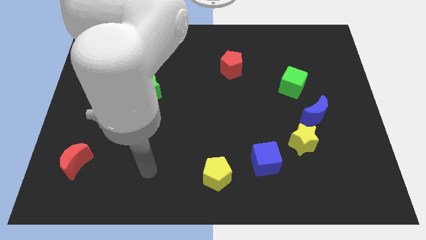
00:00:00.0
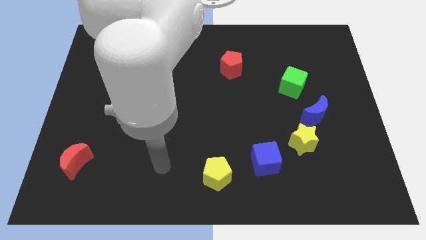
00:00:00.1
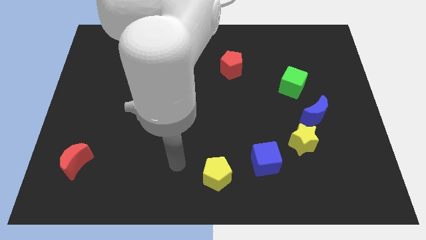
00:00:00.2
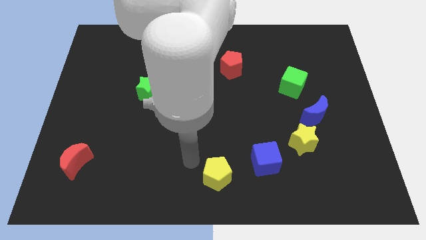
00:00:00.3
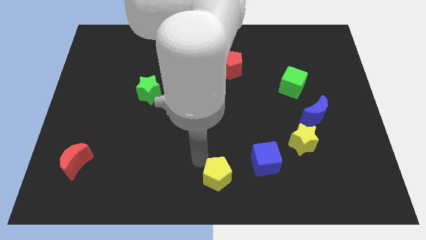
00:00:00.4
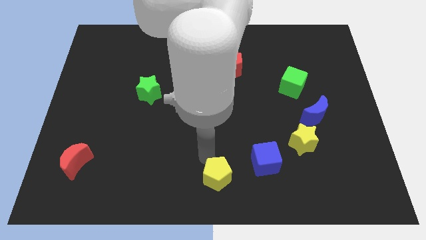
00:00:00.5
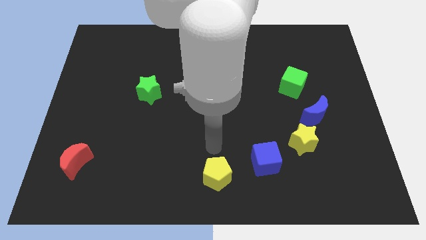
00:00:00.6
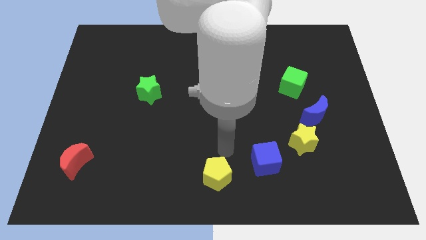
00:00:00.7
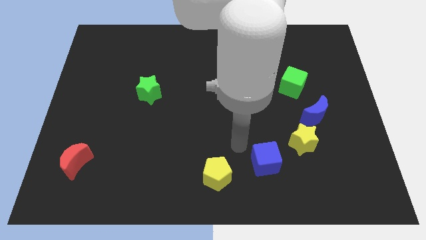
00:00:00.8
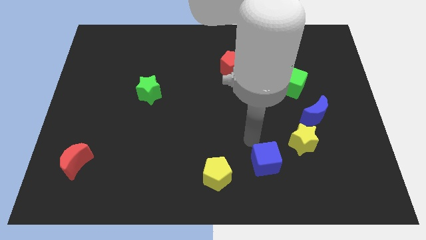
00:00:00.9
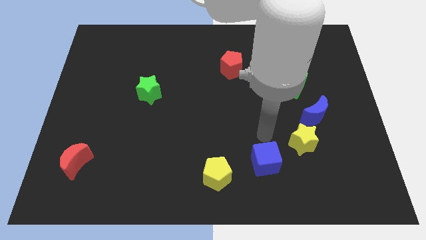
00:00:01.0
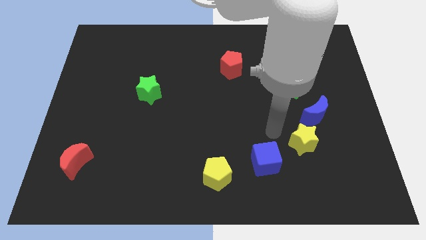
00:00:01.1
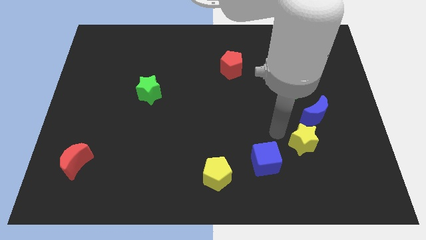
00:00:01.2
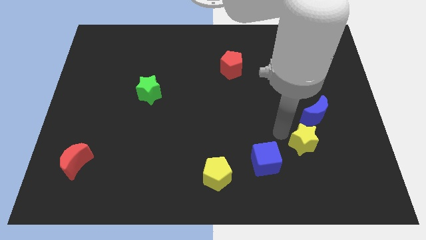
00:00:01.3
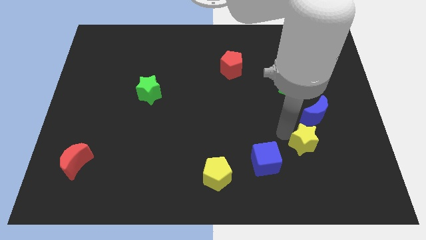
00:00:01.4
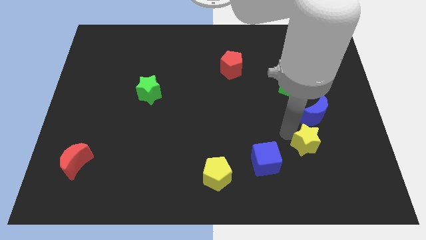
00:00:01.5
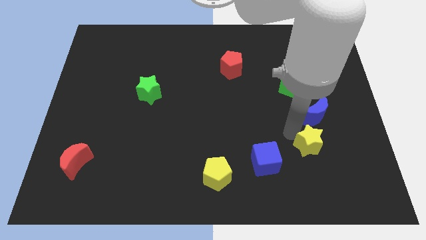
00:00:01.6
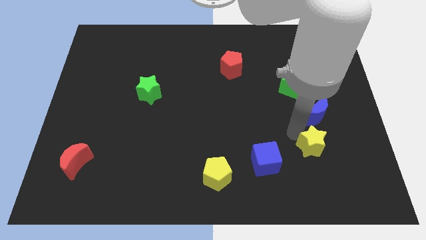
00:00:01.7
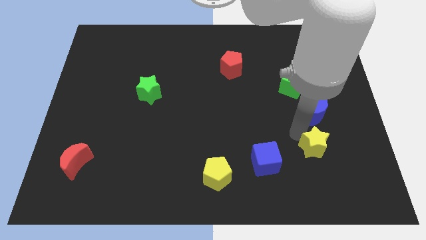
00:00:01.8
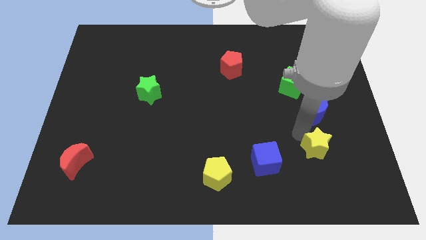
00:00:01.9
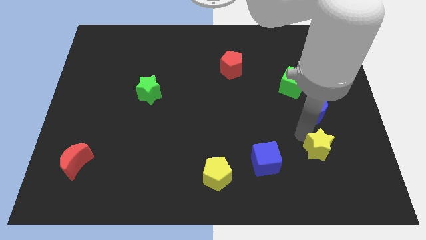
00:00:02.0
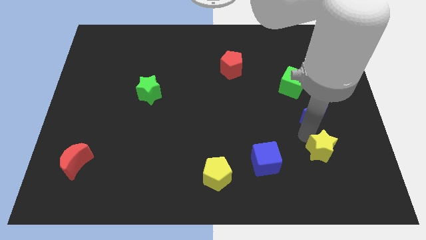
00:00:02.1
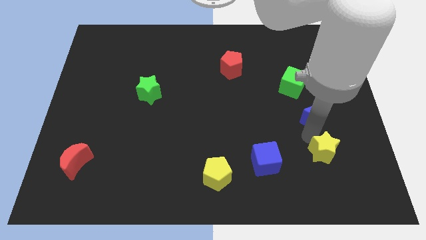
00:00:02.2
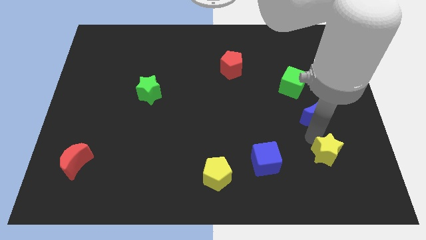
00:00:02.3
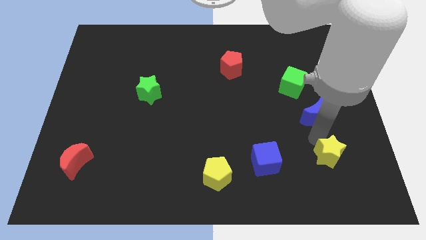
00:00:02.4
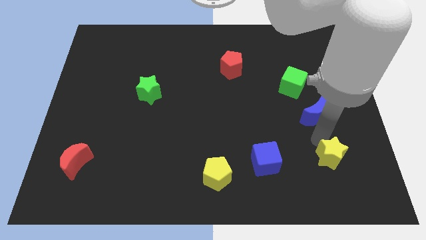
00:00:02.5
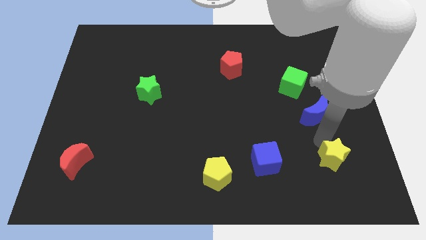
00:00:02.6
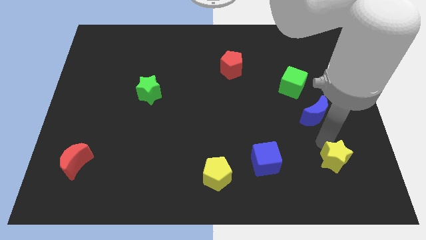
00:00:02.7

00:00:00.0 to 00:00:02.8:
pull the yellow star apart from the blue moon and blue cube

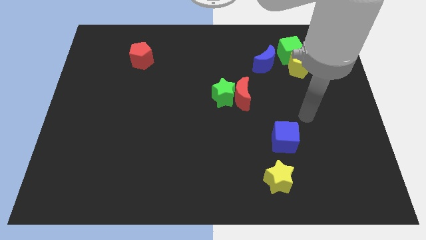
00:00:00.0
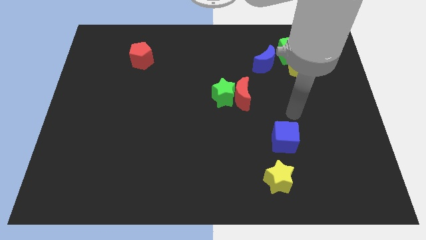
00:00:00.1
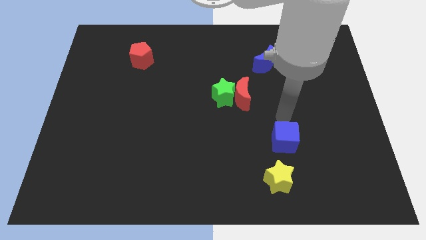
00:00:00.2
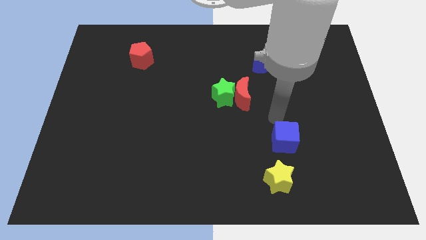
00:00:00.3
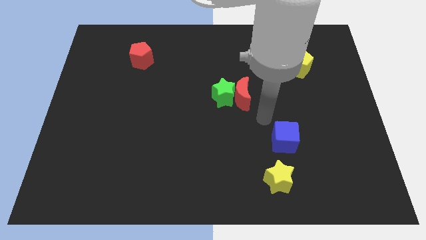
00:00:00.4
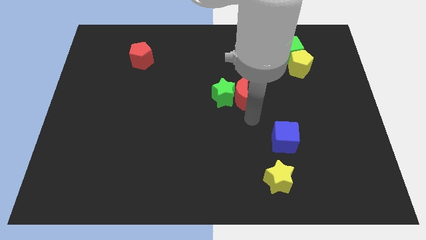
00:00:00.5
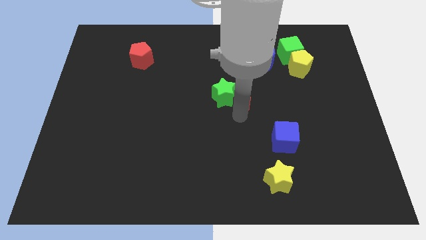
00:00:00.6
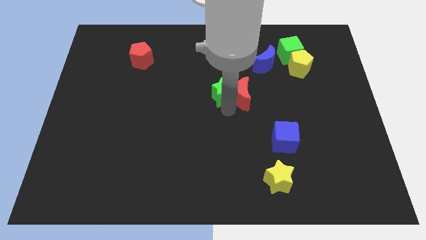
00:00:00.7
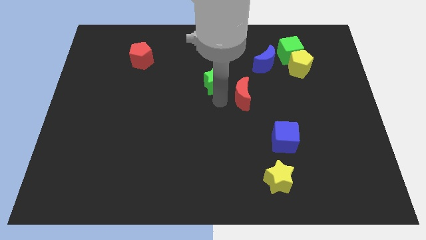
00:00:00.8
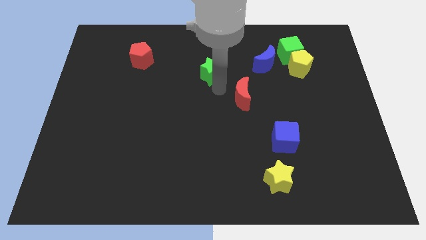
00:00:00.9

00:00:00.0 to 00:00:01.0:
separate the red moon from the green star

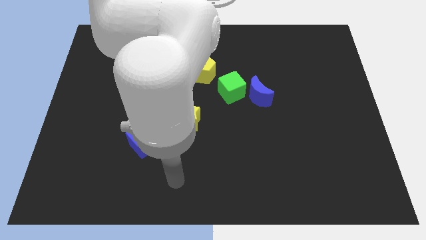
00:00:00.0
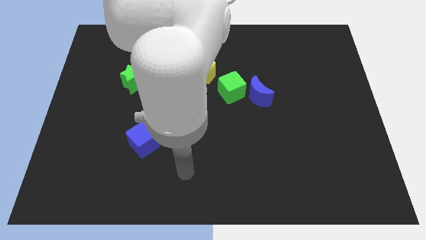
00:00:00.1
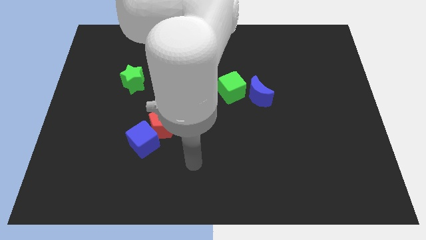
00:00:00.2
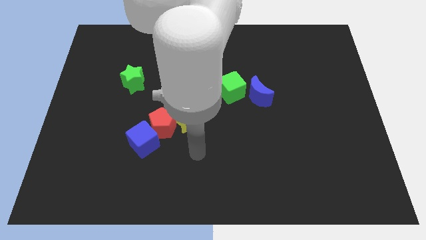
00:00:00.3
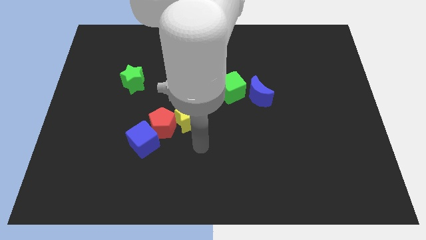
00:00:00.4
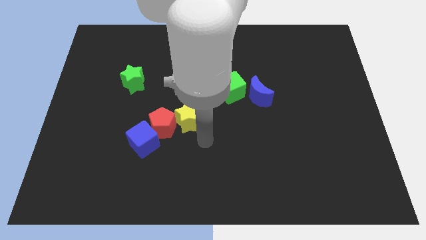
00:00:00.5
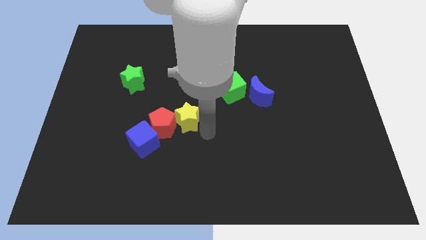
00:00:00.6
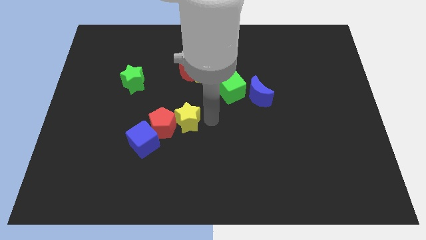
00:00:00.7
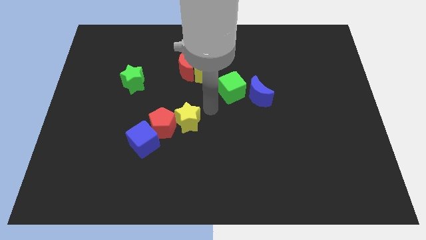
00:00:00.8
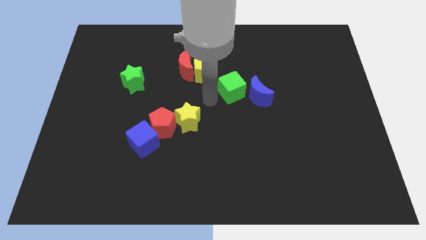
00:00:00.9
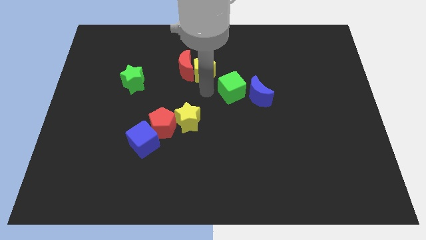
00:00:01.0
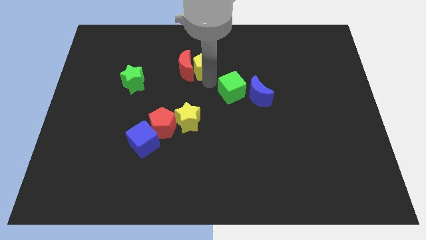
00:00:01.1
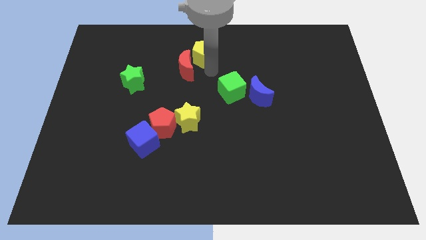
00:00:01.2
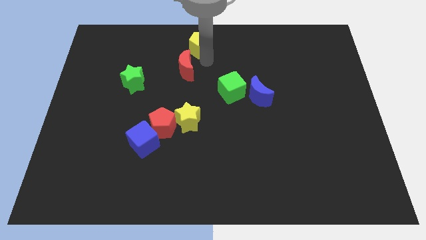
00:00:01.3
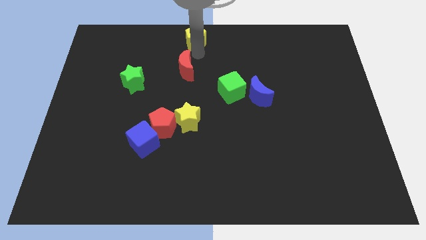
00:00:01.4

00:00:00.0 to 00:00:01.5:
pull the red moon apart from the yellow pentagon

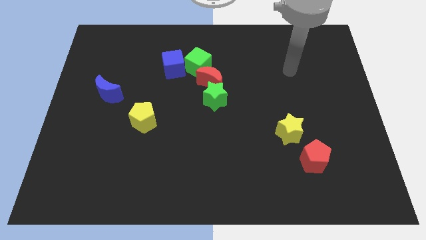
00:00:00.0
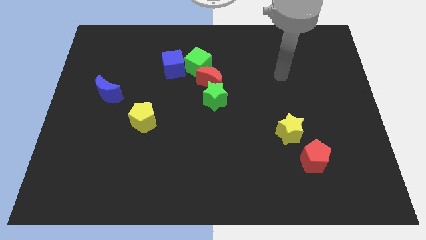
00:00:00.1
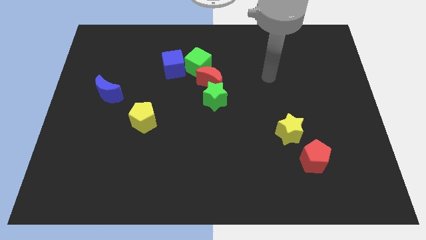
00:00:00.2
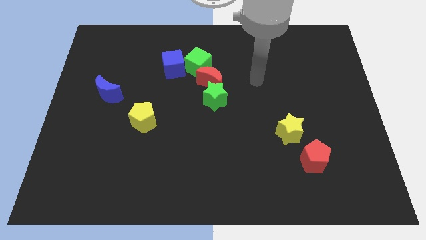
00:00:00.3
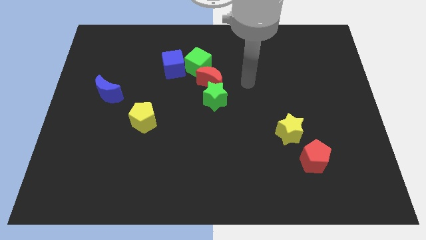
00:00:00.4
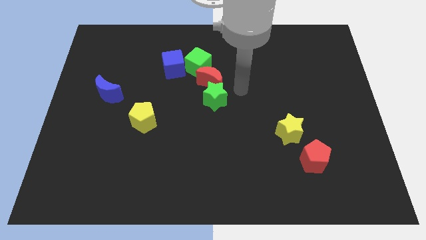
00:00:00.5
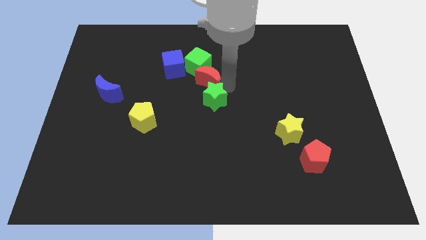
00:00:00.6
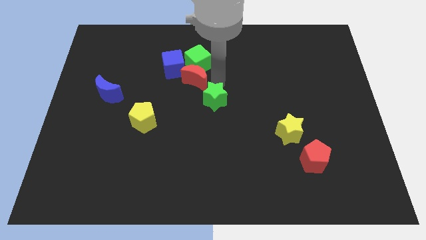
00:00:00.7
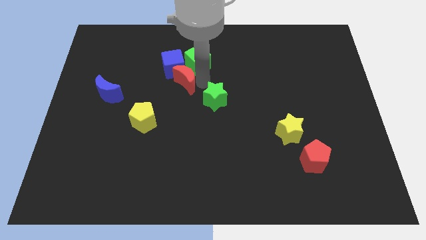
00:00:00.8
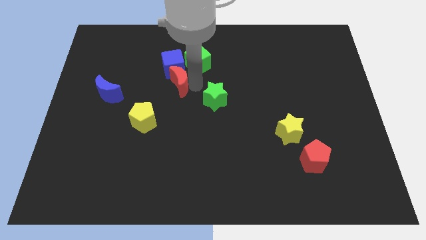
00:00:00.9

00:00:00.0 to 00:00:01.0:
move the green star away from the red moon

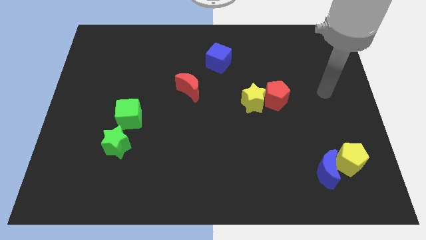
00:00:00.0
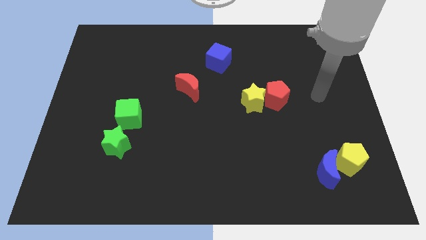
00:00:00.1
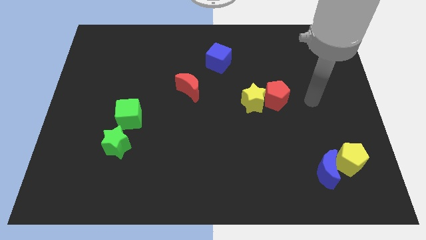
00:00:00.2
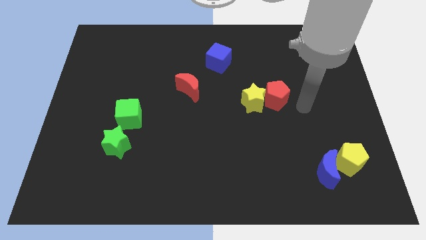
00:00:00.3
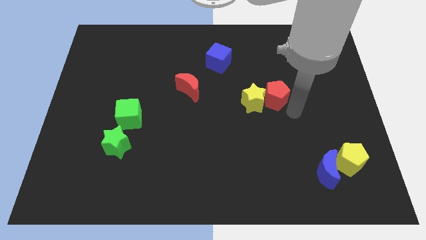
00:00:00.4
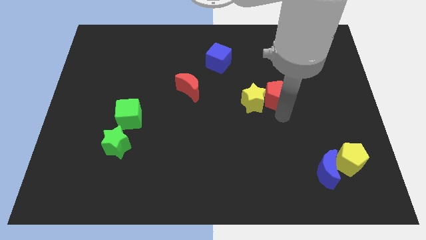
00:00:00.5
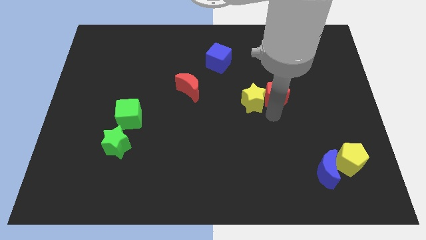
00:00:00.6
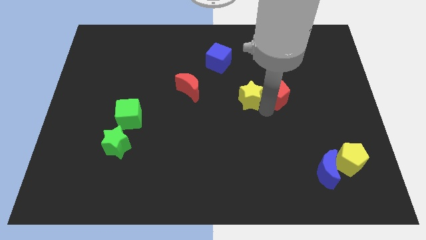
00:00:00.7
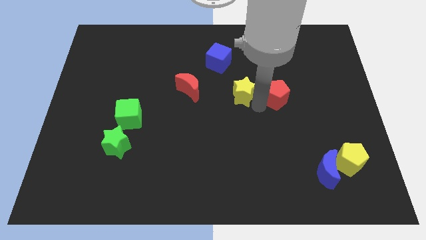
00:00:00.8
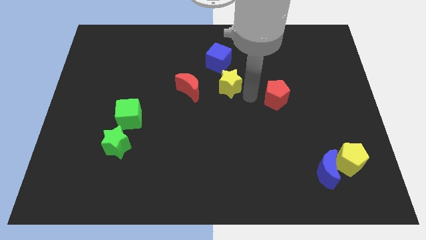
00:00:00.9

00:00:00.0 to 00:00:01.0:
separate the red pentagon from the yellow star

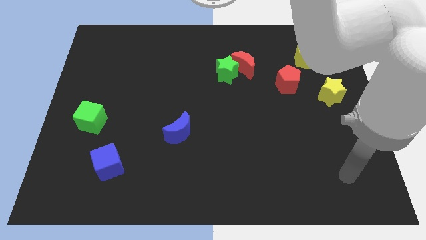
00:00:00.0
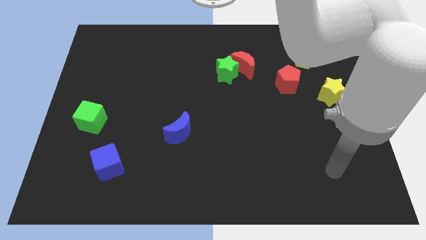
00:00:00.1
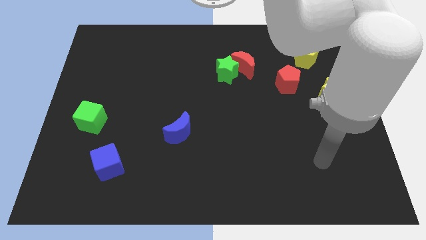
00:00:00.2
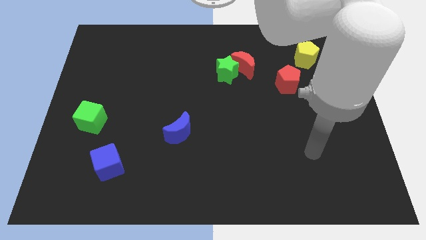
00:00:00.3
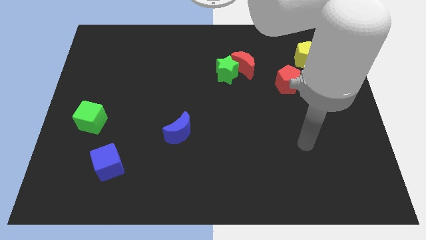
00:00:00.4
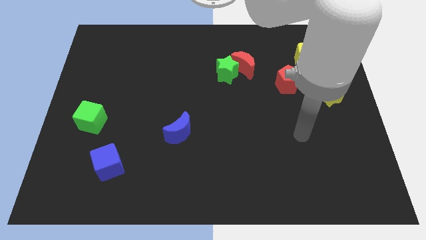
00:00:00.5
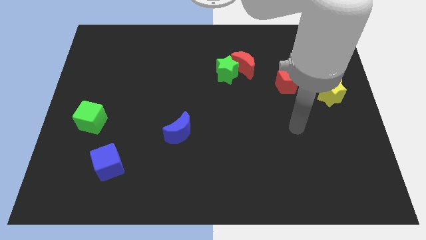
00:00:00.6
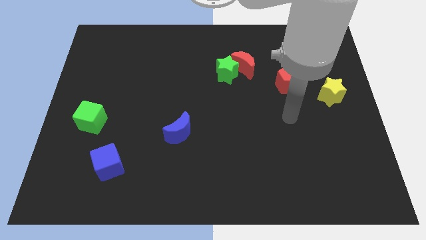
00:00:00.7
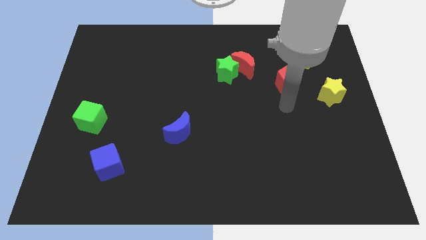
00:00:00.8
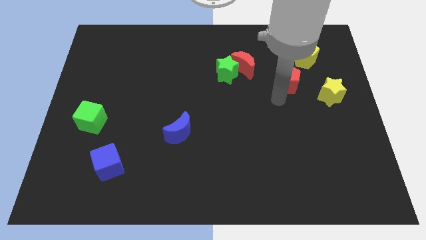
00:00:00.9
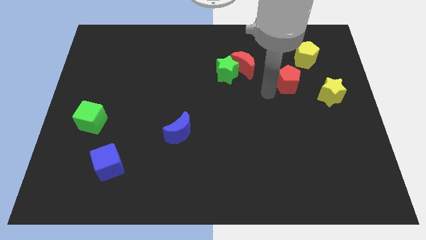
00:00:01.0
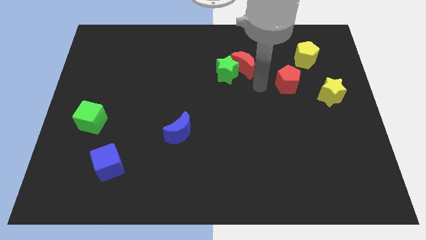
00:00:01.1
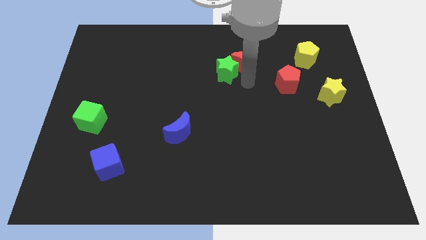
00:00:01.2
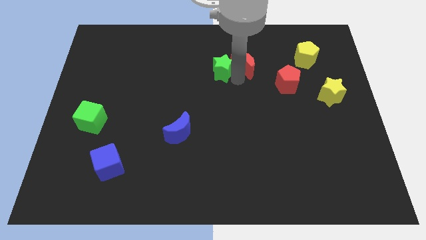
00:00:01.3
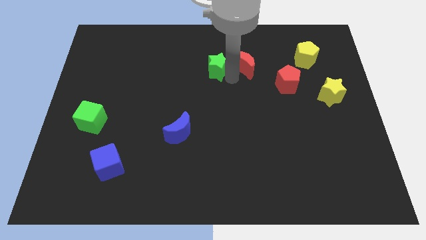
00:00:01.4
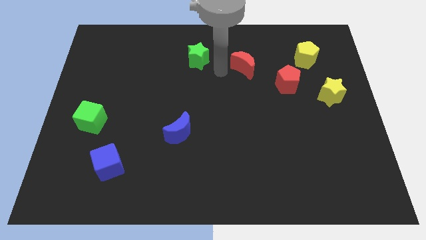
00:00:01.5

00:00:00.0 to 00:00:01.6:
pull the red moon apart from the green star

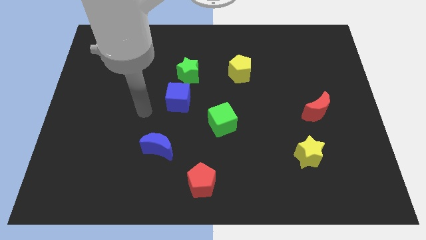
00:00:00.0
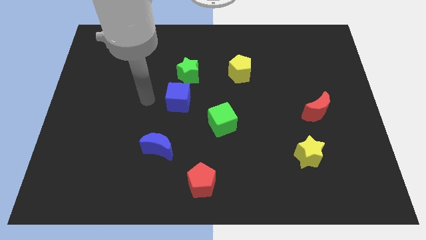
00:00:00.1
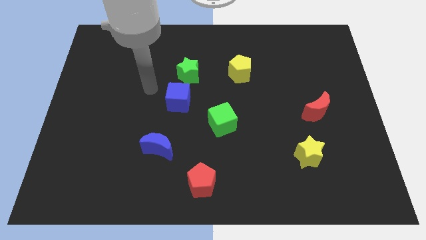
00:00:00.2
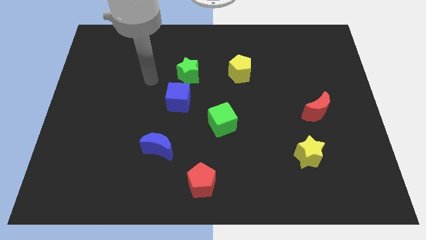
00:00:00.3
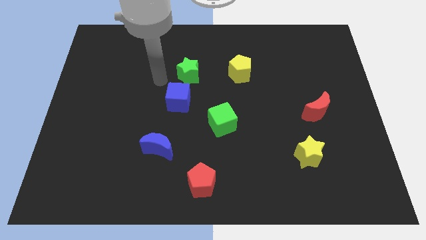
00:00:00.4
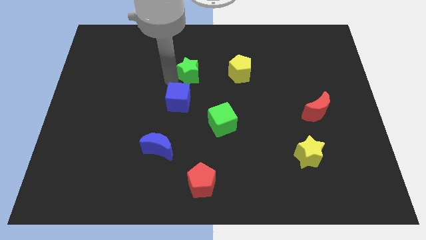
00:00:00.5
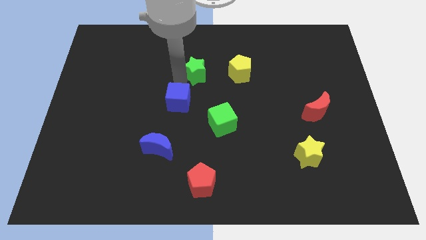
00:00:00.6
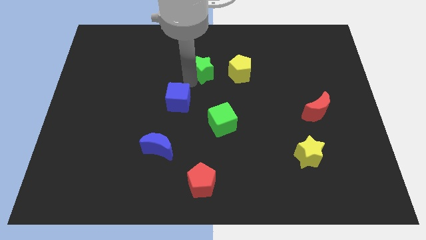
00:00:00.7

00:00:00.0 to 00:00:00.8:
pull the blue cube apart from the green star
